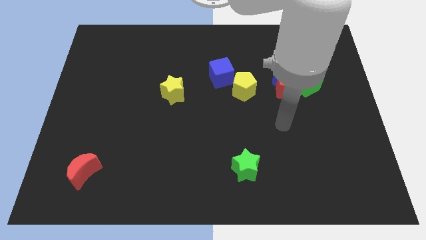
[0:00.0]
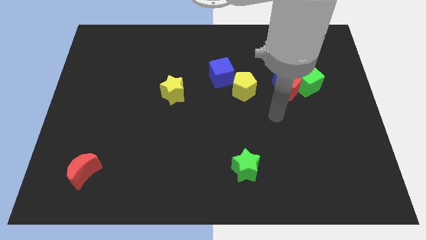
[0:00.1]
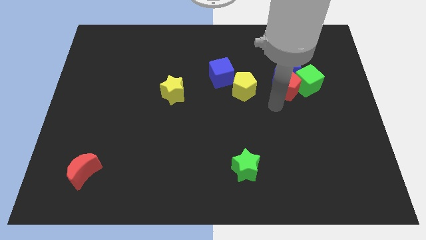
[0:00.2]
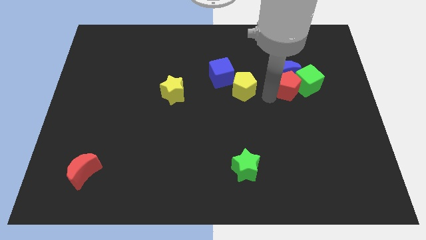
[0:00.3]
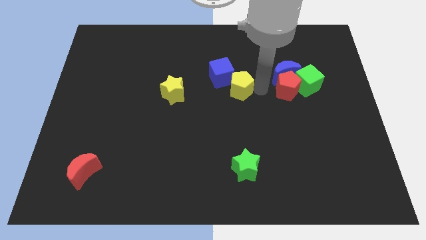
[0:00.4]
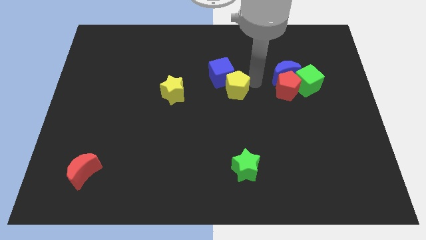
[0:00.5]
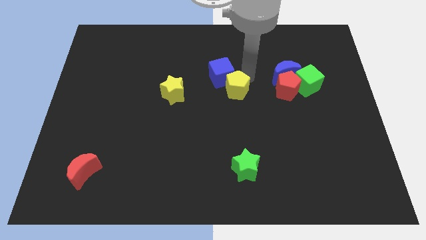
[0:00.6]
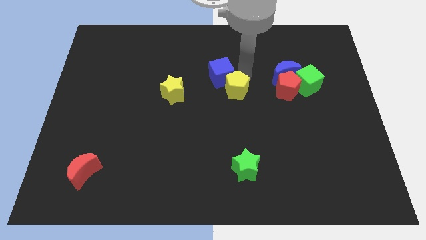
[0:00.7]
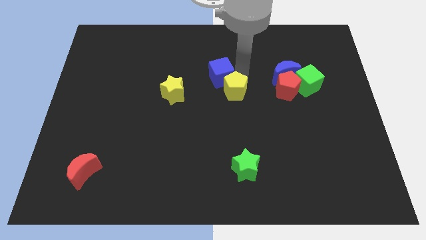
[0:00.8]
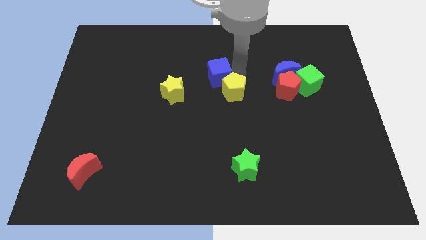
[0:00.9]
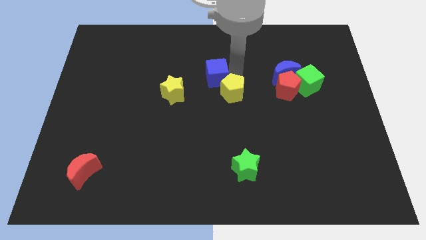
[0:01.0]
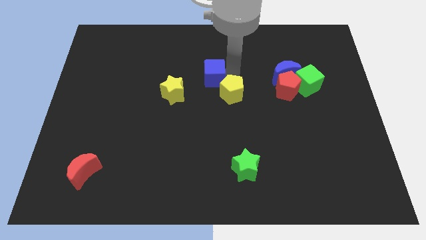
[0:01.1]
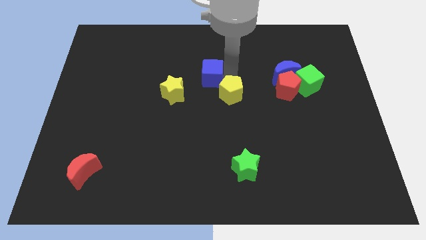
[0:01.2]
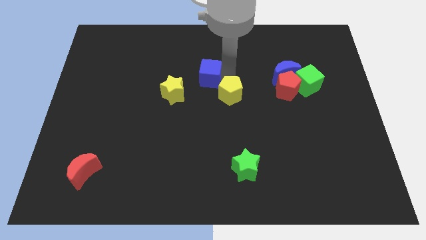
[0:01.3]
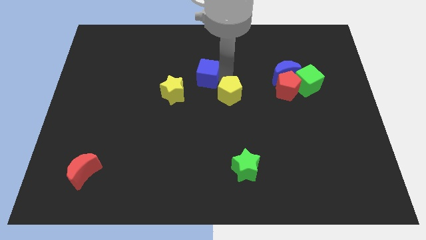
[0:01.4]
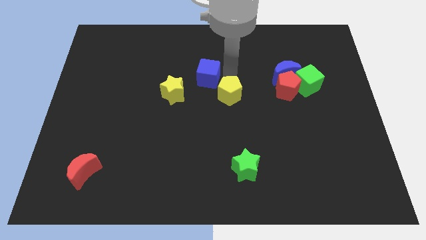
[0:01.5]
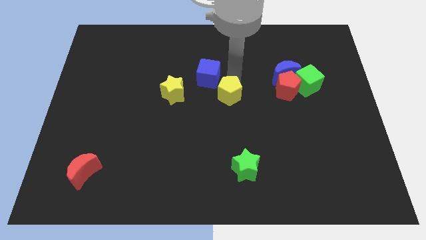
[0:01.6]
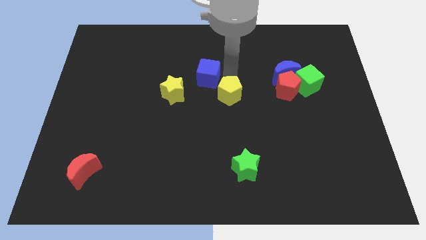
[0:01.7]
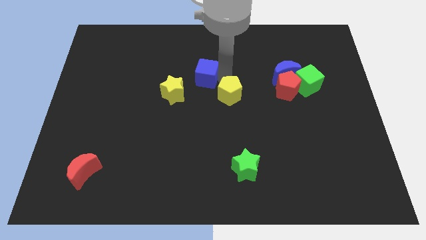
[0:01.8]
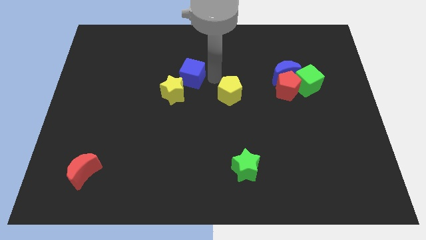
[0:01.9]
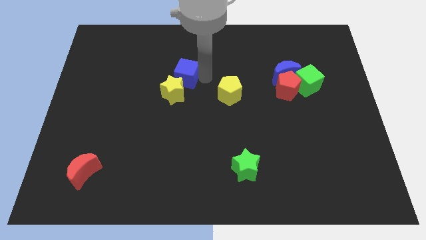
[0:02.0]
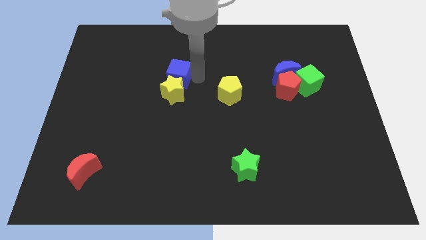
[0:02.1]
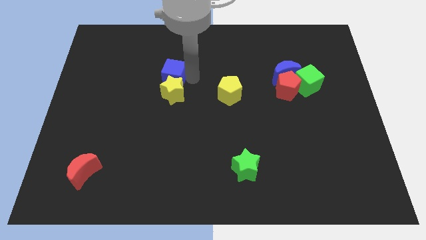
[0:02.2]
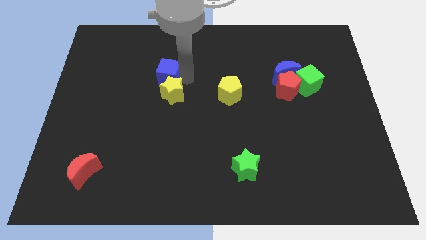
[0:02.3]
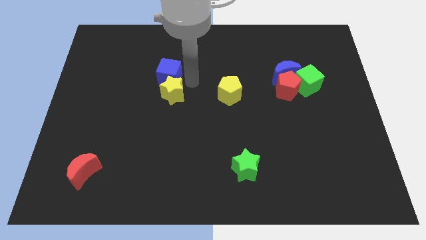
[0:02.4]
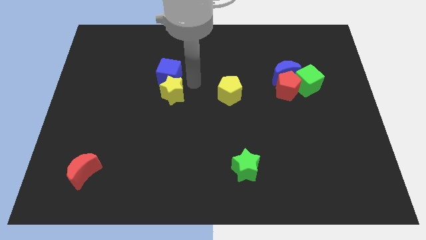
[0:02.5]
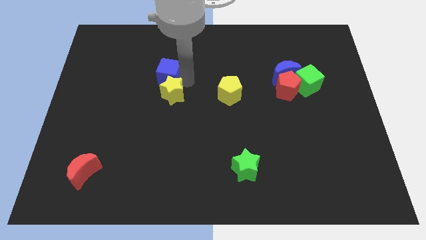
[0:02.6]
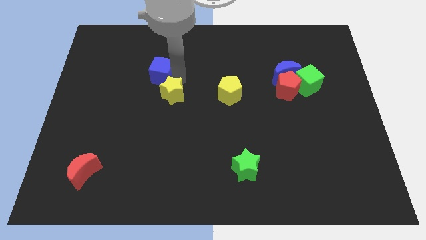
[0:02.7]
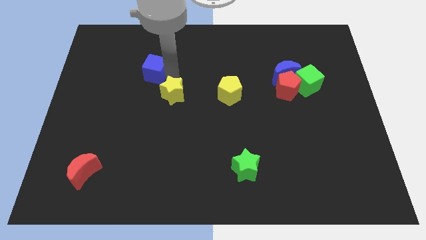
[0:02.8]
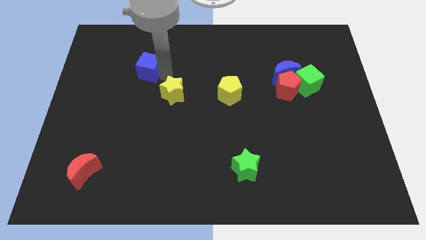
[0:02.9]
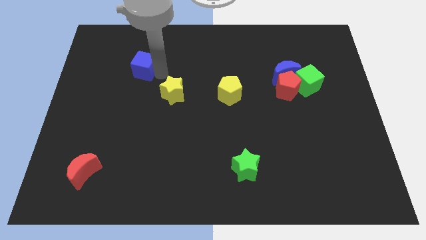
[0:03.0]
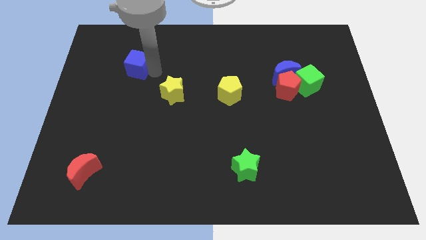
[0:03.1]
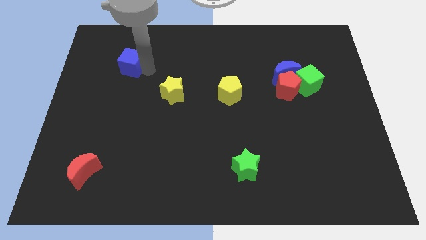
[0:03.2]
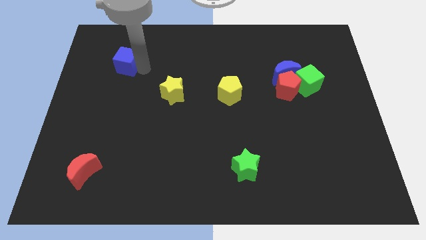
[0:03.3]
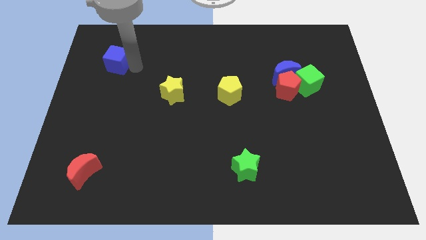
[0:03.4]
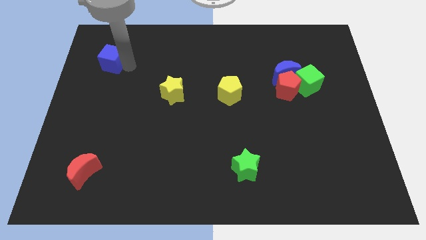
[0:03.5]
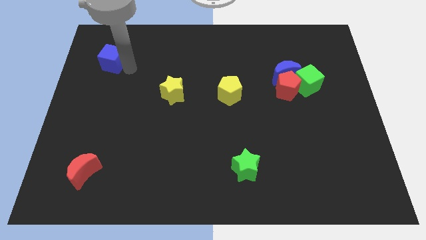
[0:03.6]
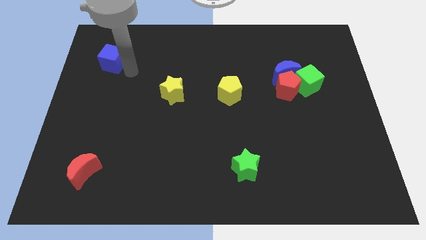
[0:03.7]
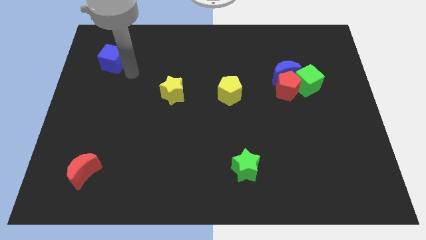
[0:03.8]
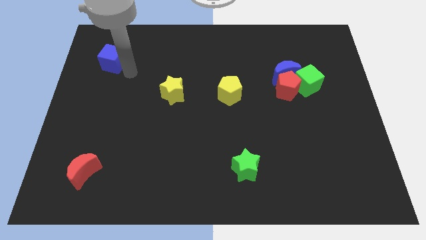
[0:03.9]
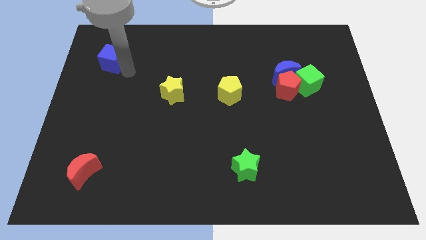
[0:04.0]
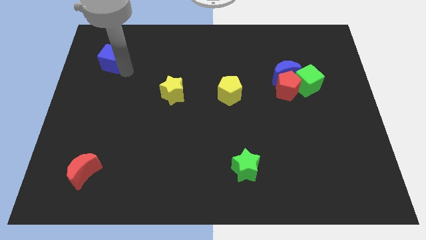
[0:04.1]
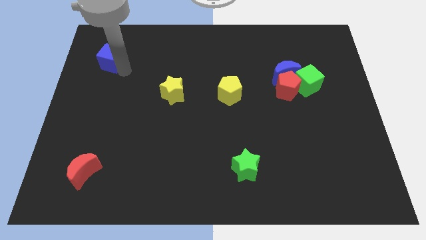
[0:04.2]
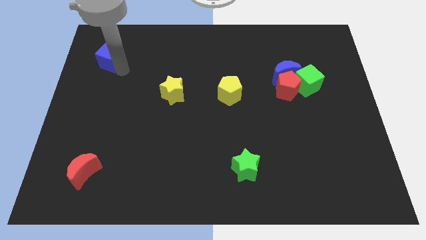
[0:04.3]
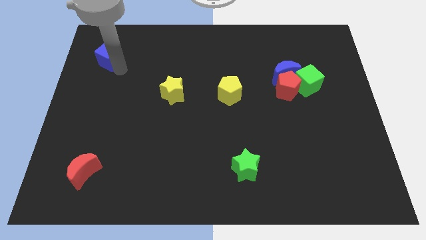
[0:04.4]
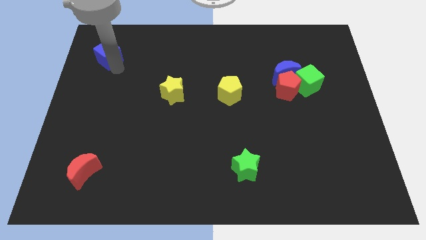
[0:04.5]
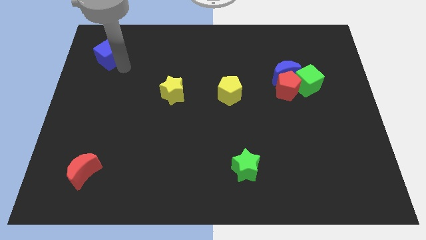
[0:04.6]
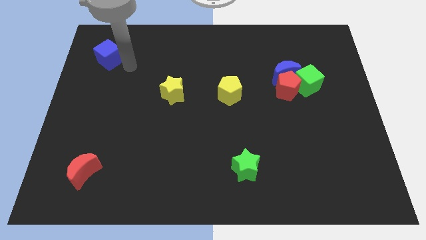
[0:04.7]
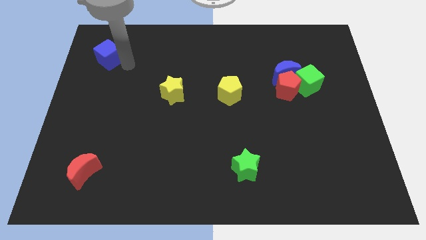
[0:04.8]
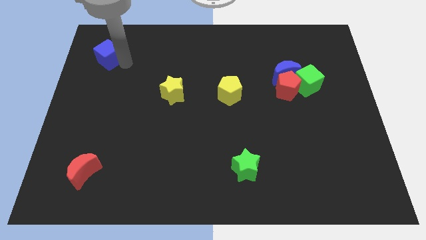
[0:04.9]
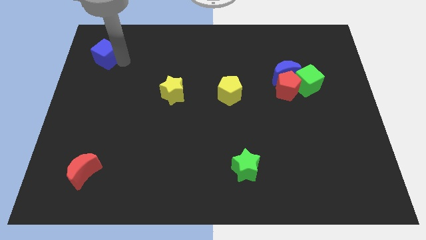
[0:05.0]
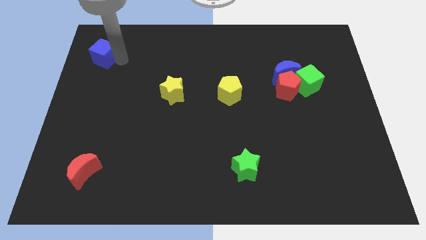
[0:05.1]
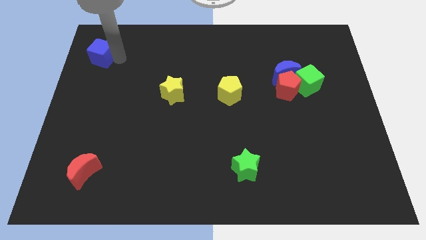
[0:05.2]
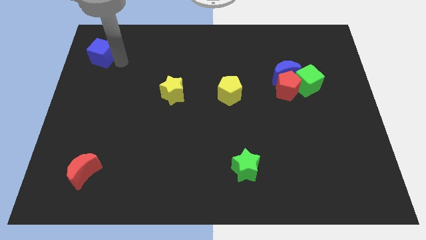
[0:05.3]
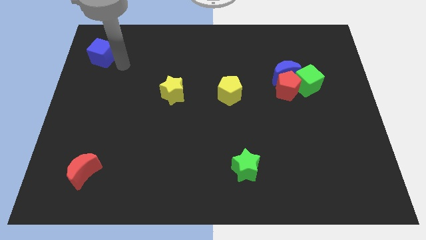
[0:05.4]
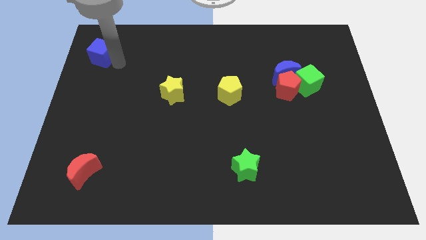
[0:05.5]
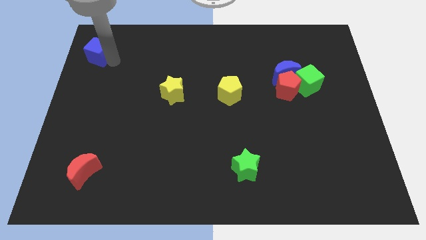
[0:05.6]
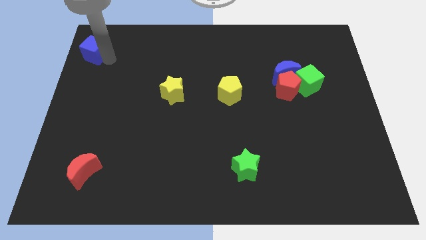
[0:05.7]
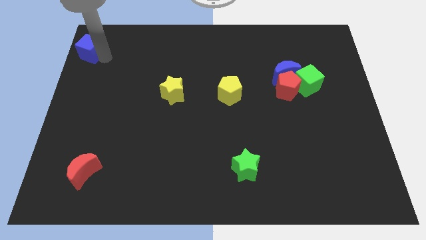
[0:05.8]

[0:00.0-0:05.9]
push the blue cube to the top left of the board

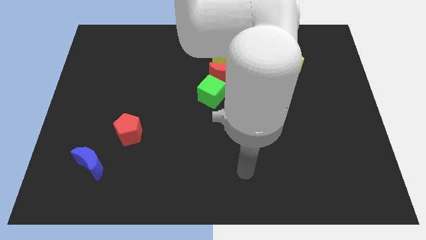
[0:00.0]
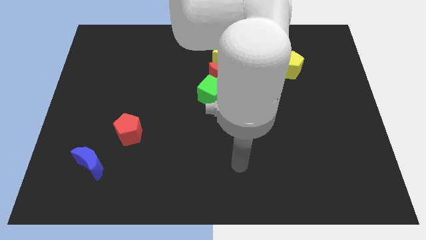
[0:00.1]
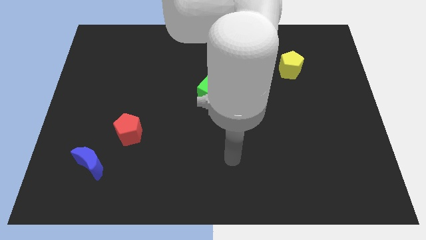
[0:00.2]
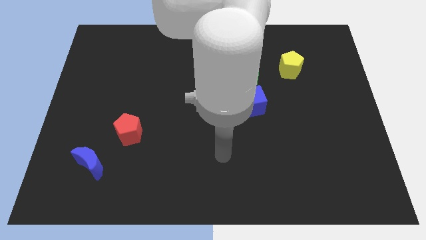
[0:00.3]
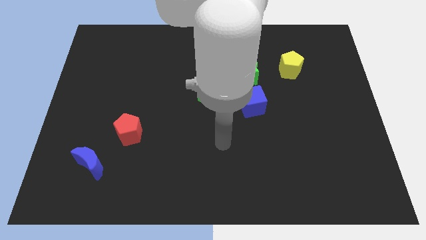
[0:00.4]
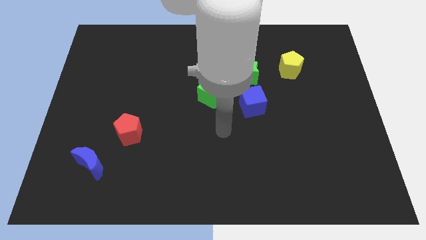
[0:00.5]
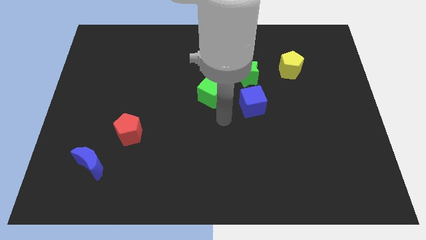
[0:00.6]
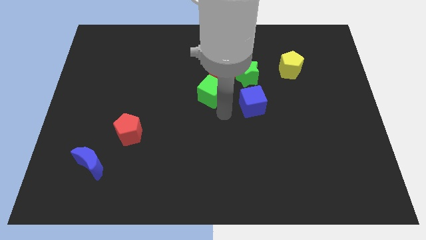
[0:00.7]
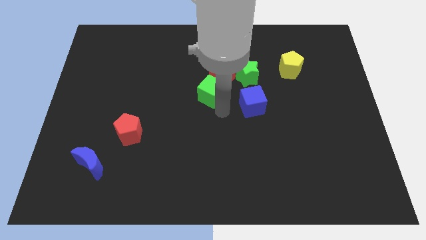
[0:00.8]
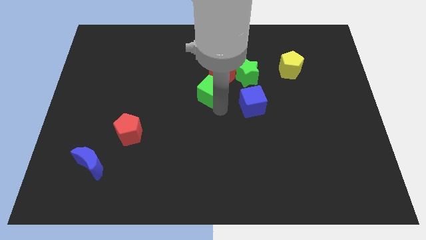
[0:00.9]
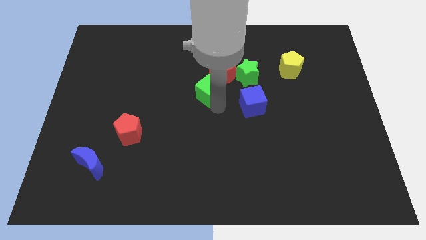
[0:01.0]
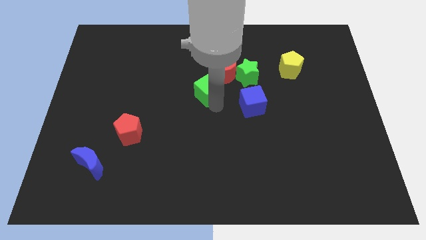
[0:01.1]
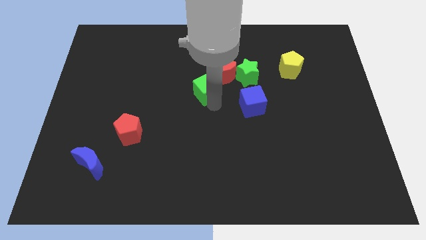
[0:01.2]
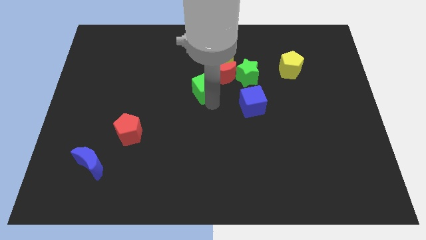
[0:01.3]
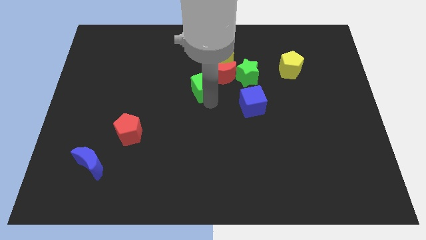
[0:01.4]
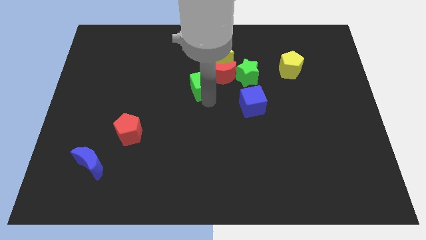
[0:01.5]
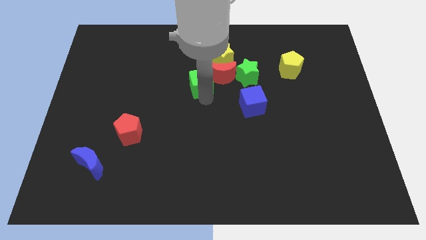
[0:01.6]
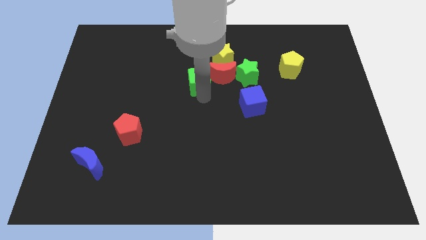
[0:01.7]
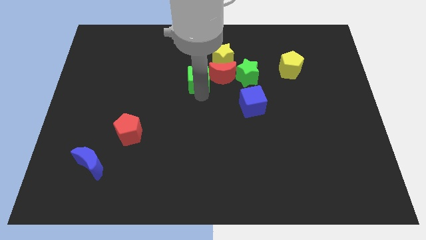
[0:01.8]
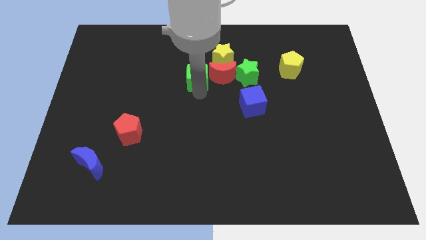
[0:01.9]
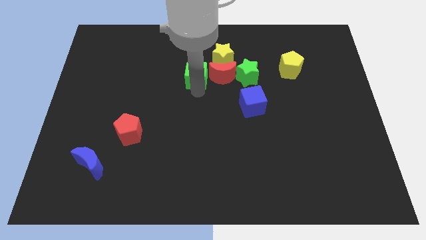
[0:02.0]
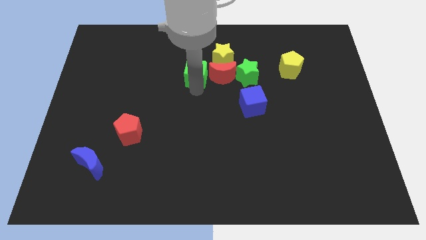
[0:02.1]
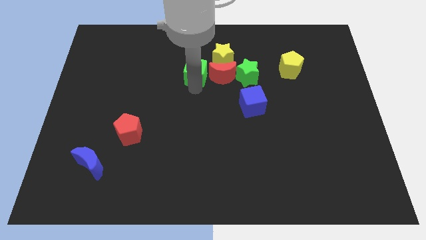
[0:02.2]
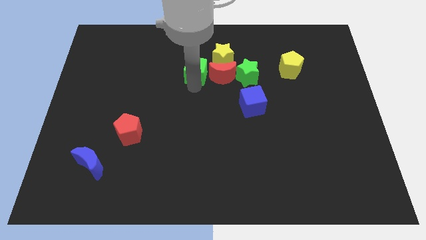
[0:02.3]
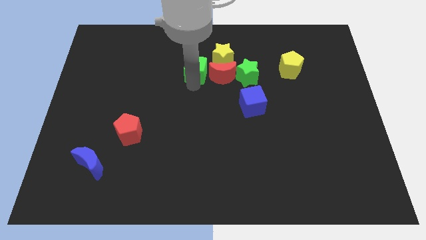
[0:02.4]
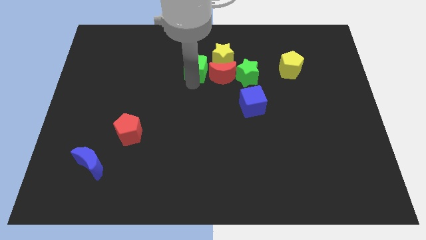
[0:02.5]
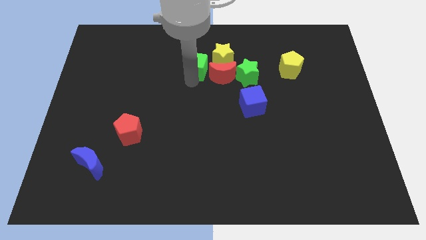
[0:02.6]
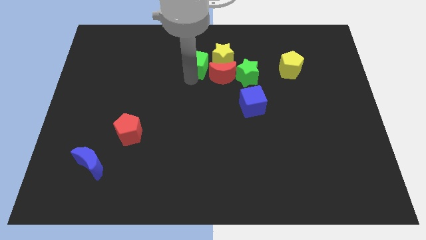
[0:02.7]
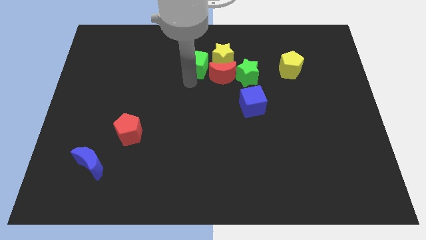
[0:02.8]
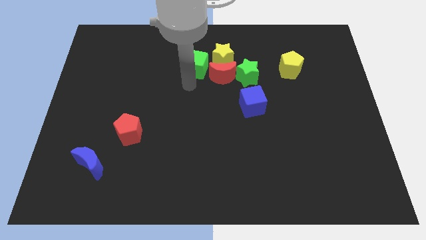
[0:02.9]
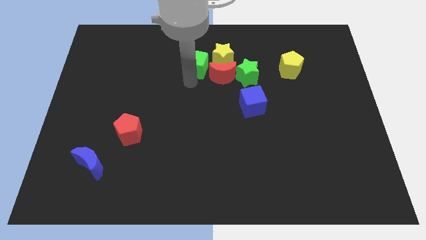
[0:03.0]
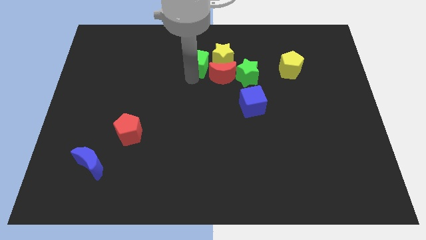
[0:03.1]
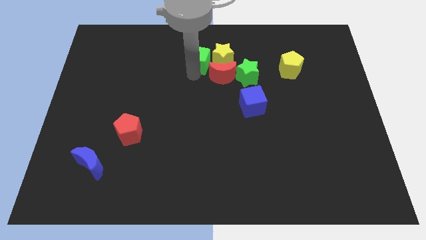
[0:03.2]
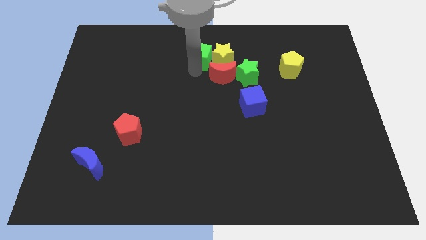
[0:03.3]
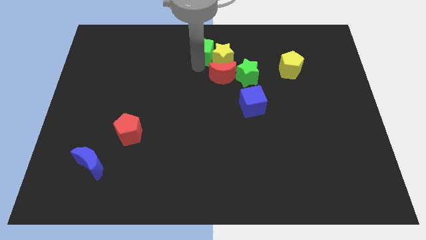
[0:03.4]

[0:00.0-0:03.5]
slide the green cube to the top side
